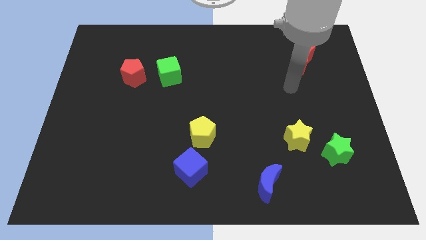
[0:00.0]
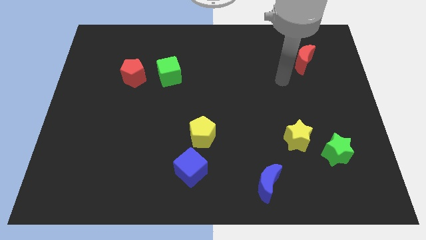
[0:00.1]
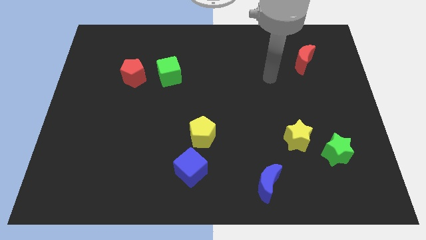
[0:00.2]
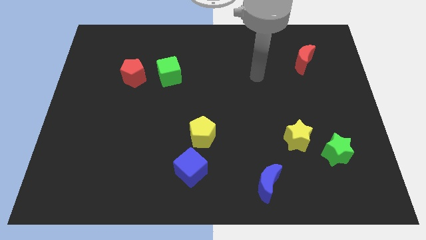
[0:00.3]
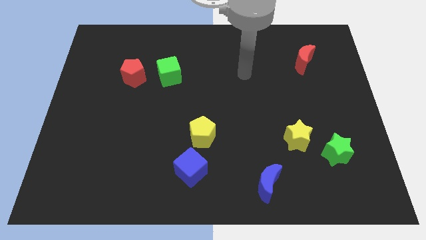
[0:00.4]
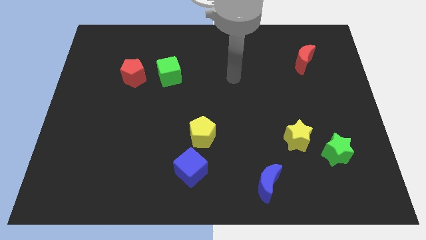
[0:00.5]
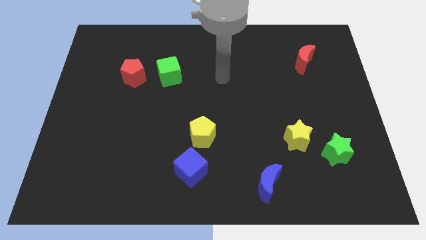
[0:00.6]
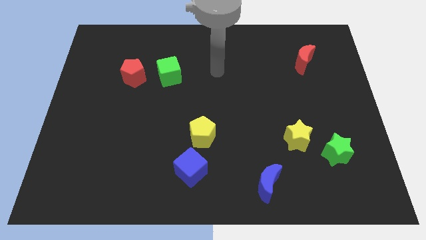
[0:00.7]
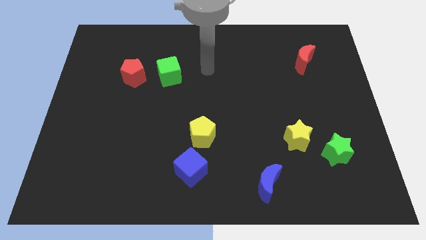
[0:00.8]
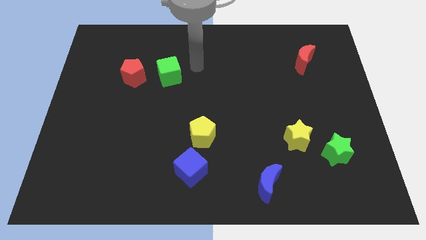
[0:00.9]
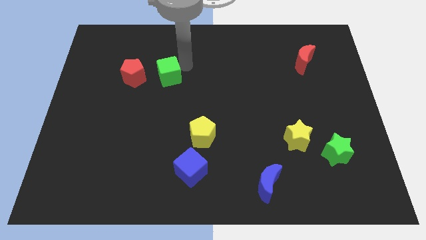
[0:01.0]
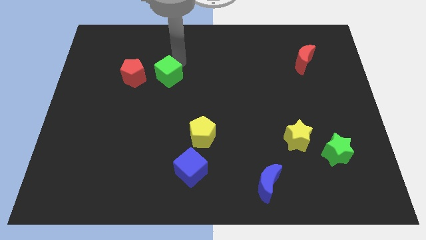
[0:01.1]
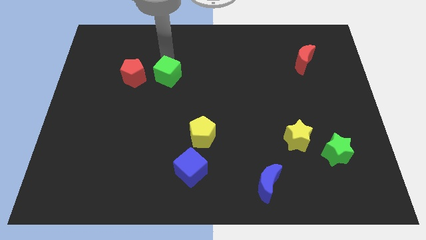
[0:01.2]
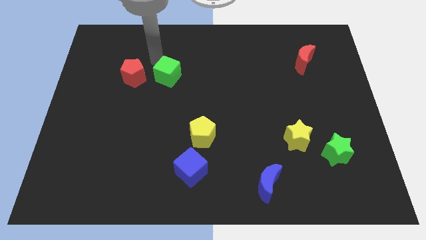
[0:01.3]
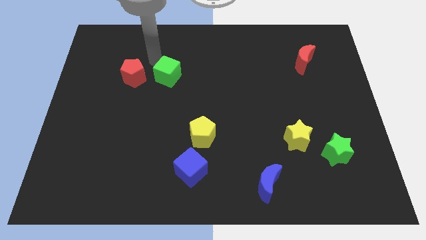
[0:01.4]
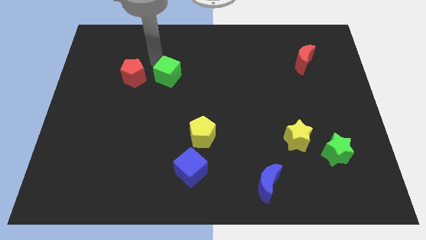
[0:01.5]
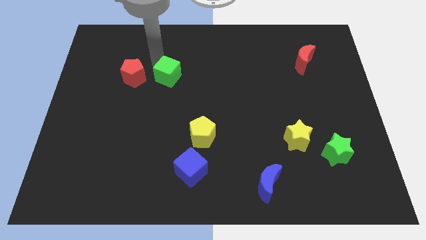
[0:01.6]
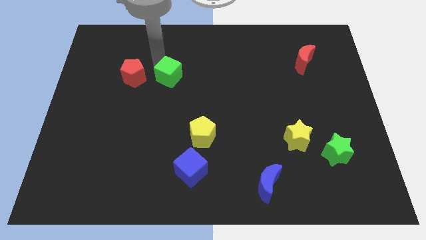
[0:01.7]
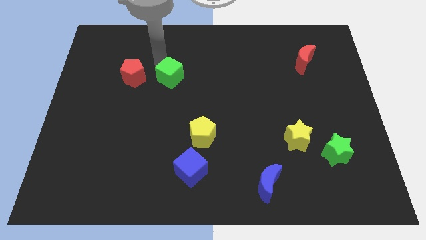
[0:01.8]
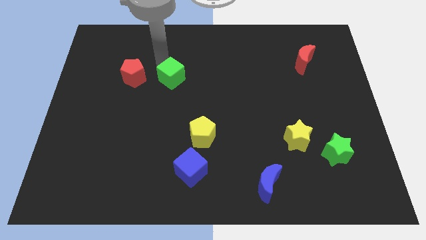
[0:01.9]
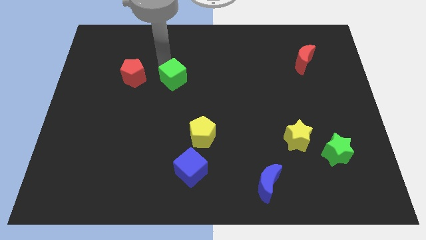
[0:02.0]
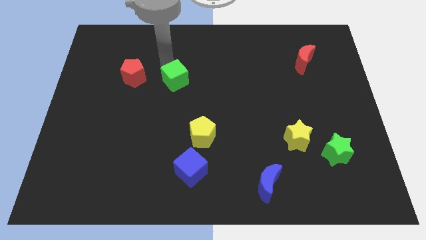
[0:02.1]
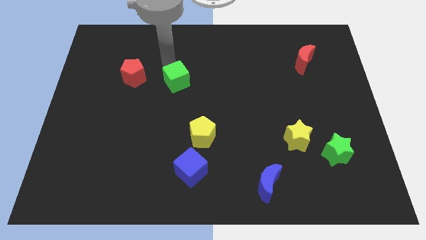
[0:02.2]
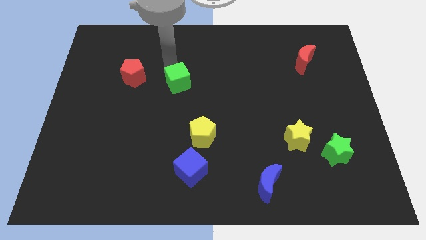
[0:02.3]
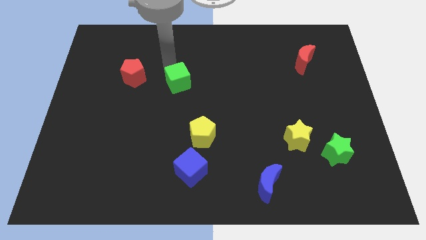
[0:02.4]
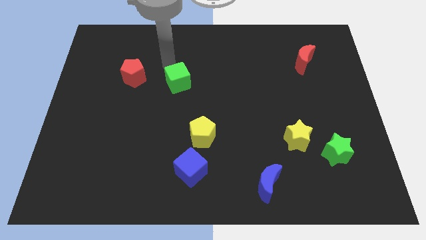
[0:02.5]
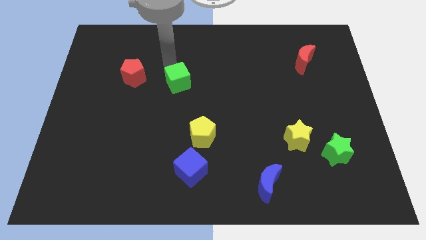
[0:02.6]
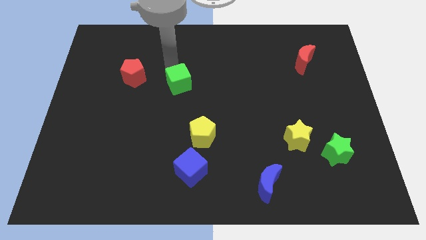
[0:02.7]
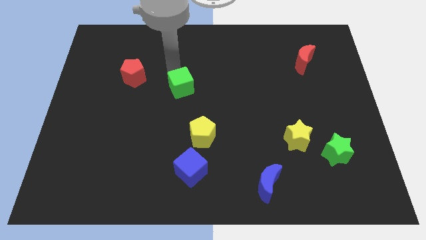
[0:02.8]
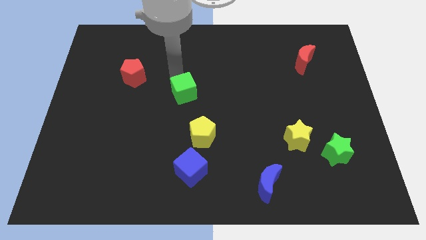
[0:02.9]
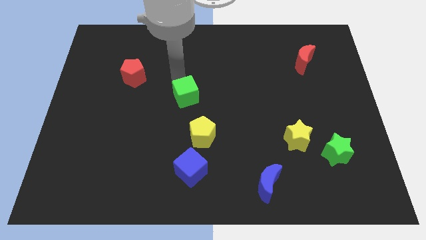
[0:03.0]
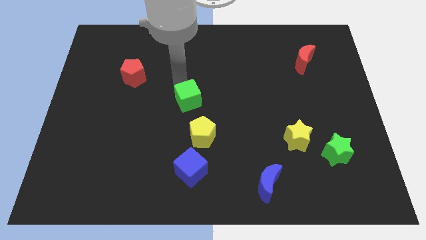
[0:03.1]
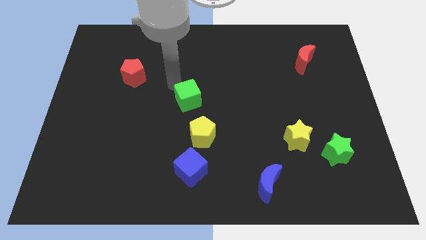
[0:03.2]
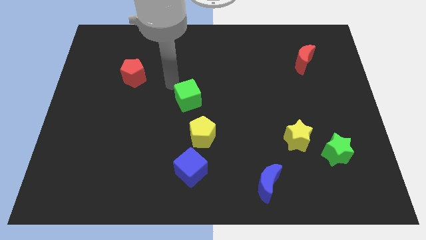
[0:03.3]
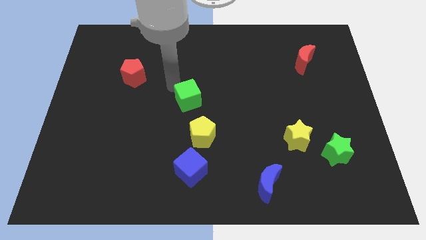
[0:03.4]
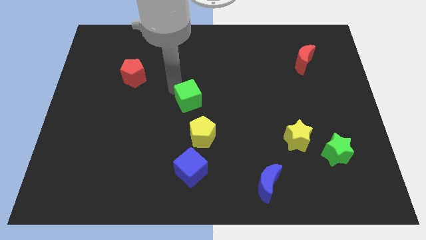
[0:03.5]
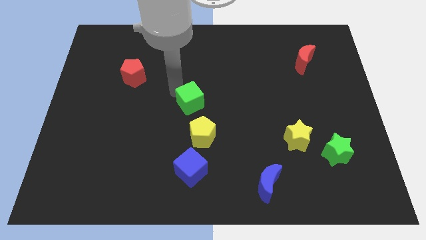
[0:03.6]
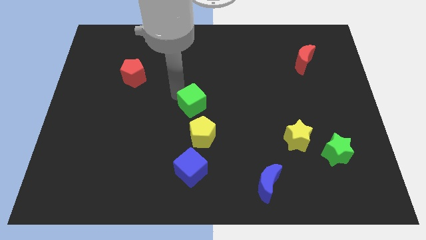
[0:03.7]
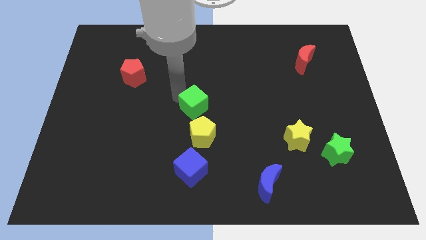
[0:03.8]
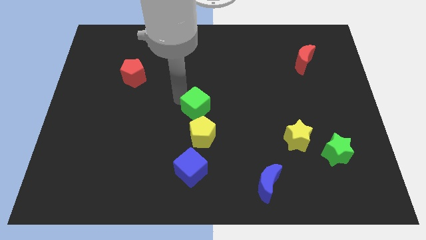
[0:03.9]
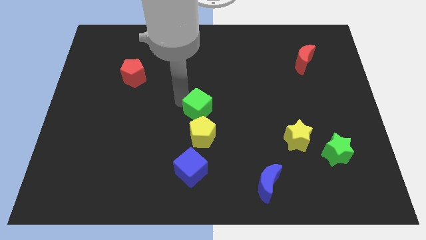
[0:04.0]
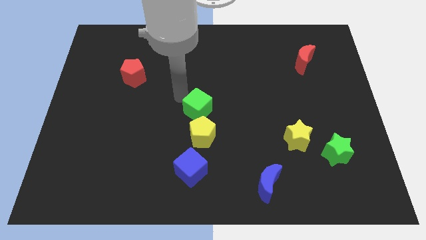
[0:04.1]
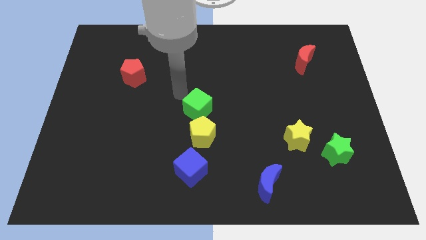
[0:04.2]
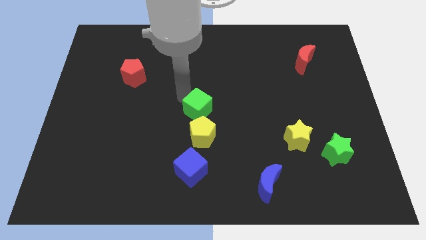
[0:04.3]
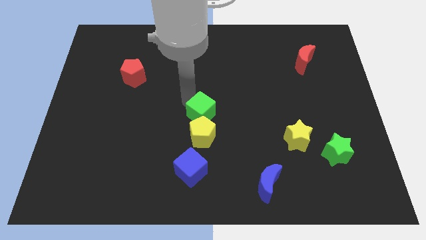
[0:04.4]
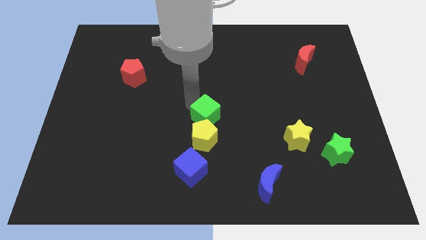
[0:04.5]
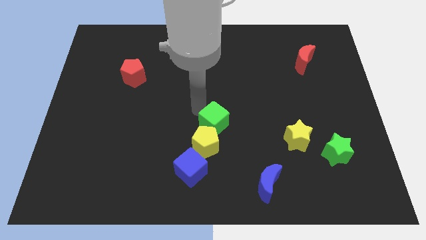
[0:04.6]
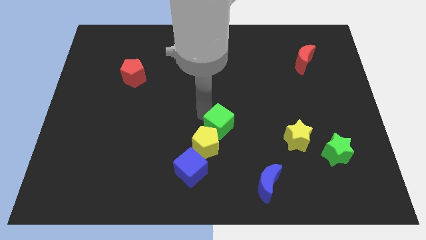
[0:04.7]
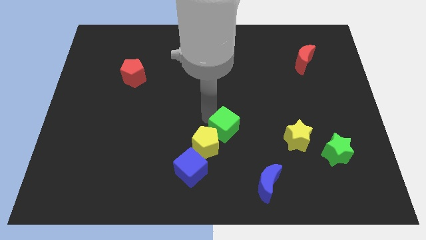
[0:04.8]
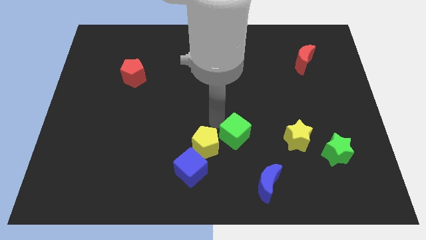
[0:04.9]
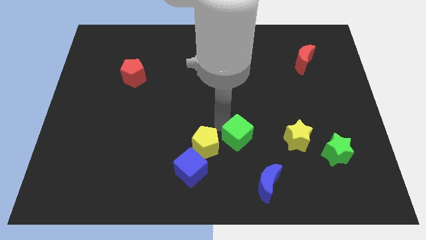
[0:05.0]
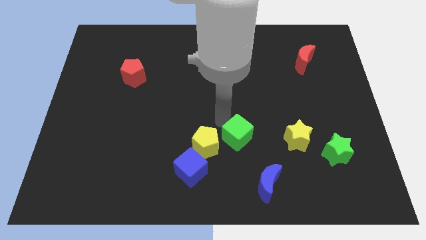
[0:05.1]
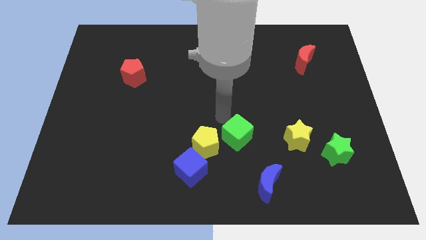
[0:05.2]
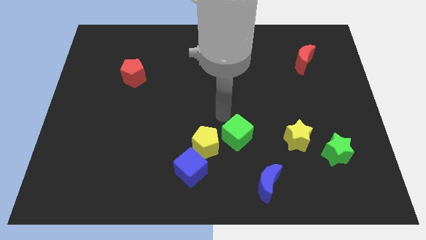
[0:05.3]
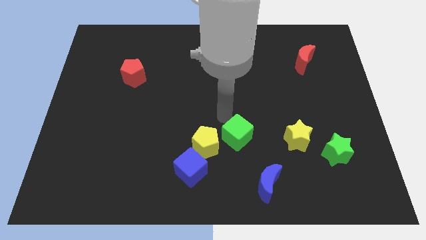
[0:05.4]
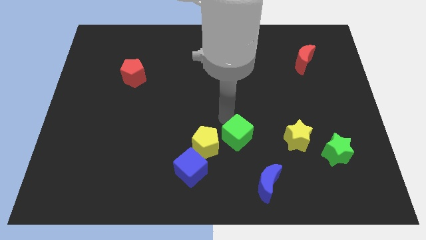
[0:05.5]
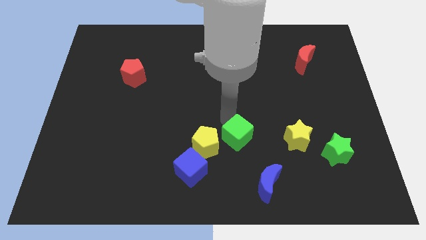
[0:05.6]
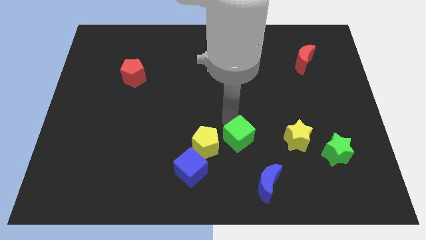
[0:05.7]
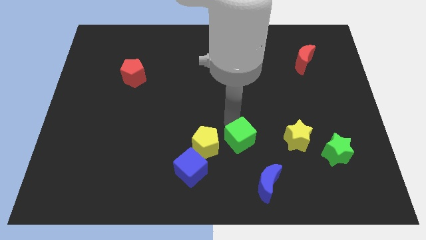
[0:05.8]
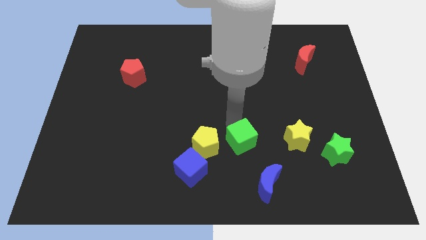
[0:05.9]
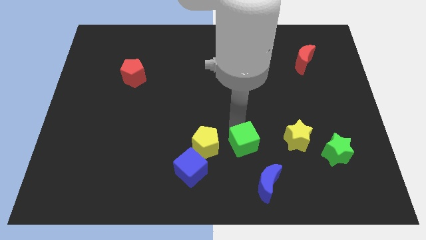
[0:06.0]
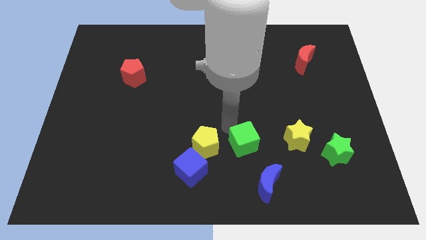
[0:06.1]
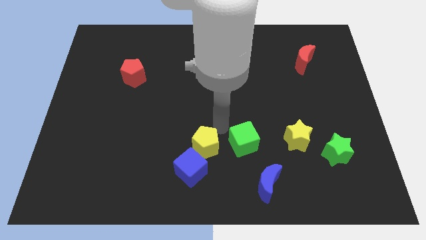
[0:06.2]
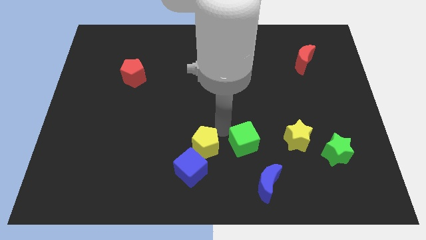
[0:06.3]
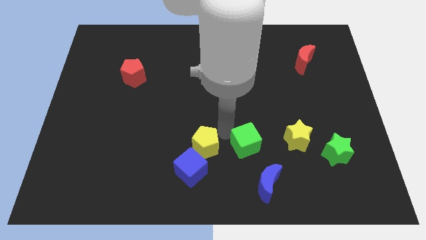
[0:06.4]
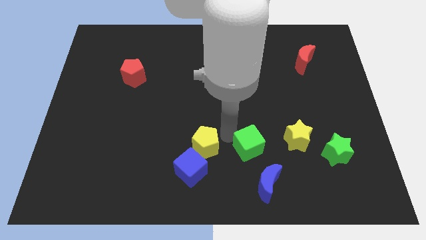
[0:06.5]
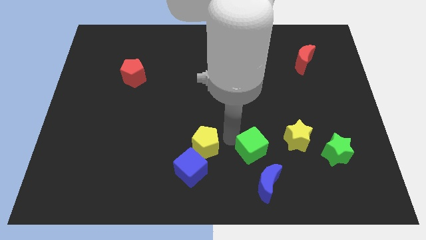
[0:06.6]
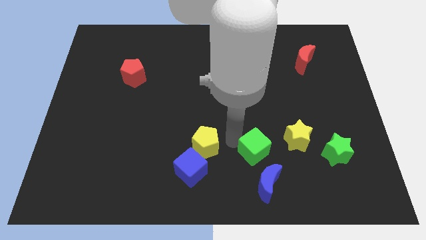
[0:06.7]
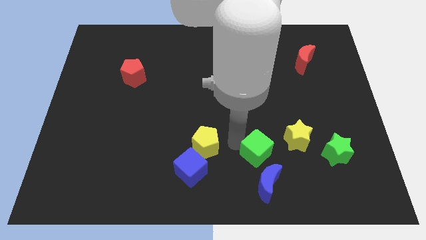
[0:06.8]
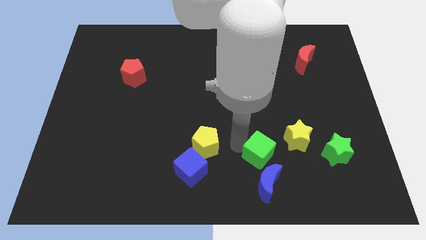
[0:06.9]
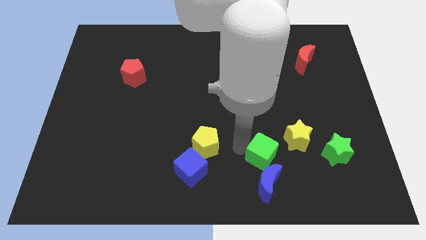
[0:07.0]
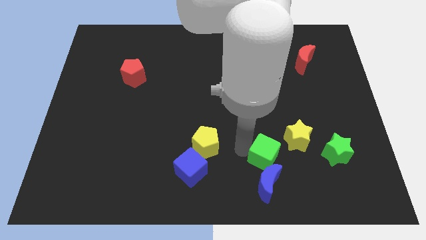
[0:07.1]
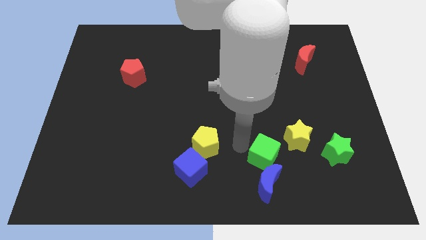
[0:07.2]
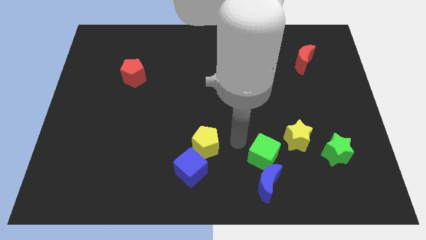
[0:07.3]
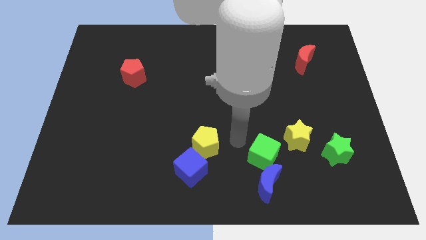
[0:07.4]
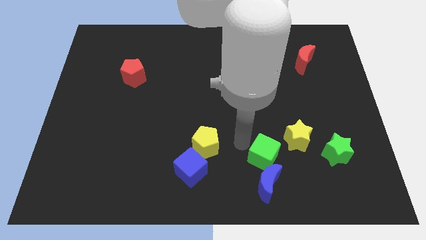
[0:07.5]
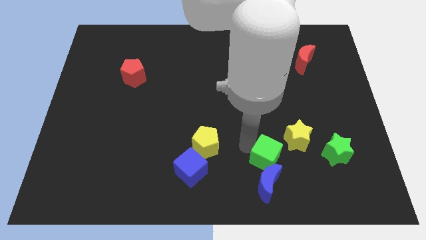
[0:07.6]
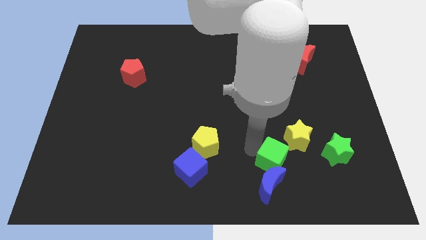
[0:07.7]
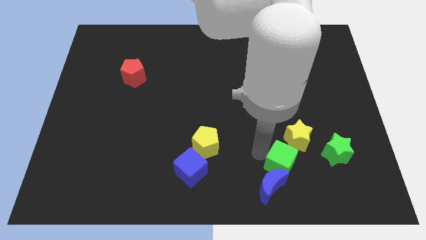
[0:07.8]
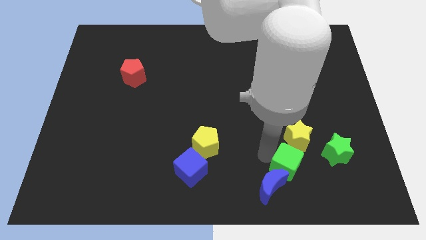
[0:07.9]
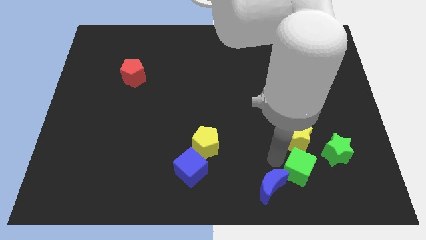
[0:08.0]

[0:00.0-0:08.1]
move the green cube to the right of the blue moon
